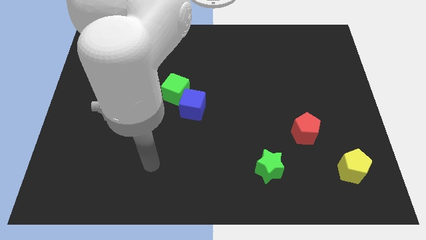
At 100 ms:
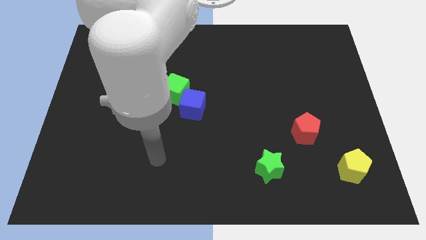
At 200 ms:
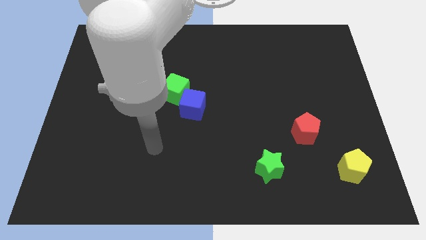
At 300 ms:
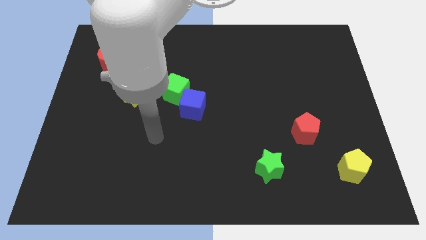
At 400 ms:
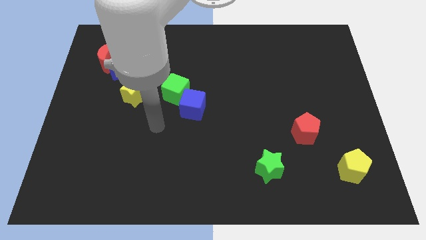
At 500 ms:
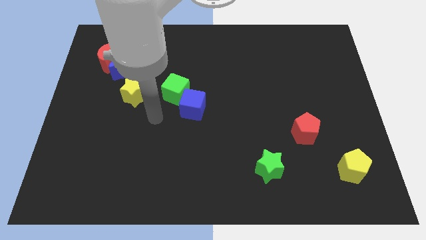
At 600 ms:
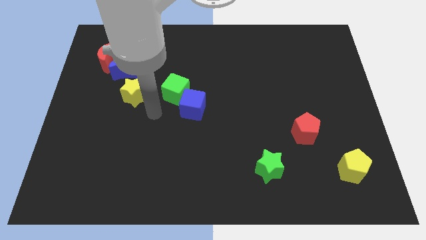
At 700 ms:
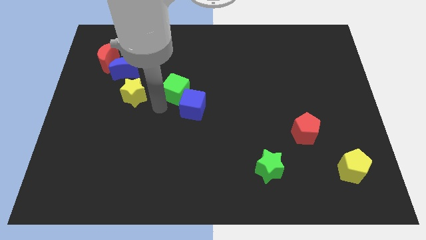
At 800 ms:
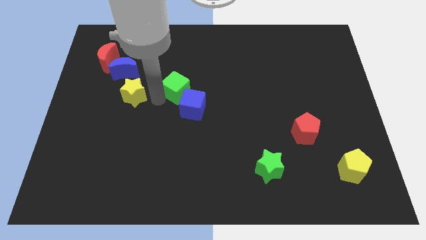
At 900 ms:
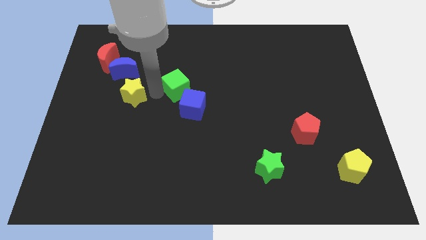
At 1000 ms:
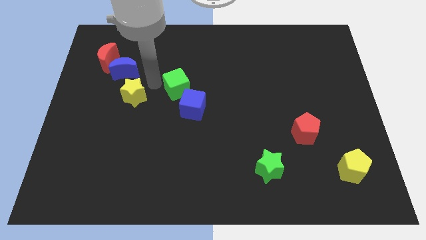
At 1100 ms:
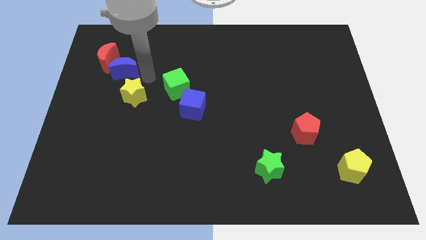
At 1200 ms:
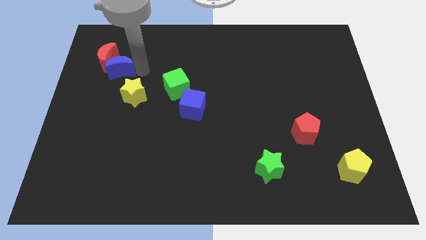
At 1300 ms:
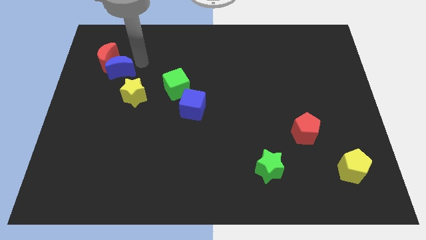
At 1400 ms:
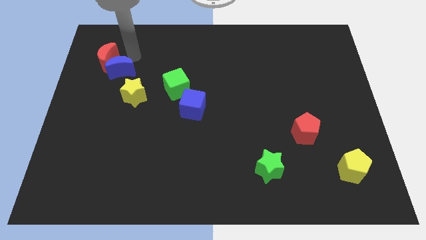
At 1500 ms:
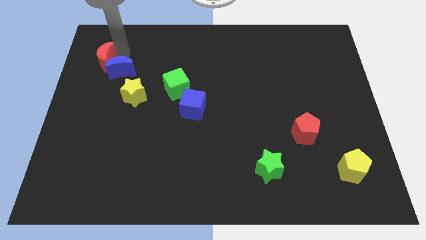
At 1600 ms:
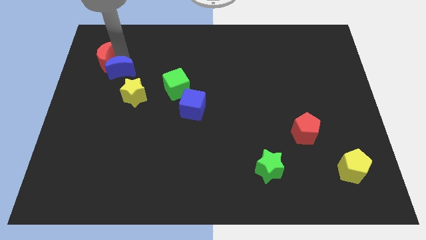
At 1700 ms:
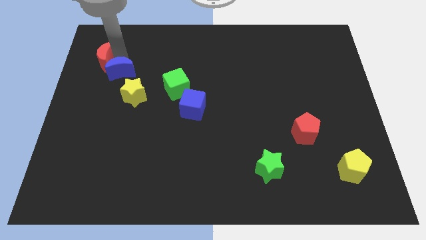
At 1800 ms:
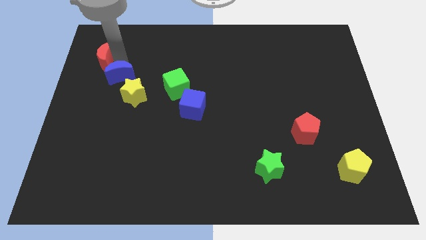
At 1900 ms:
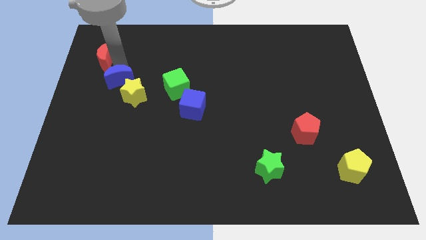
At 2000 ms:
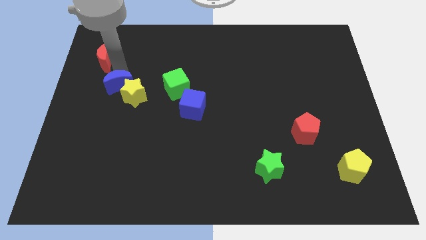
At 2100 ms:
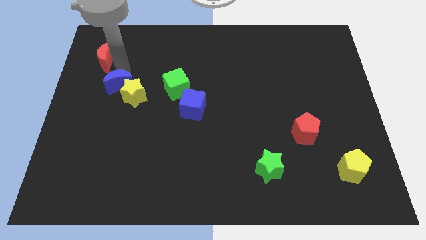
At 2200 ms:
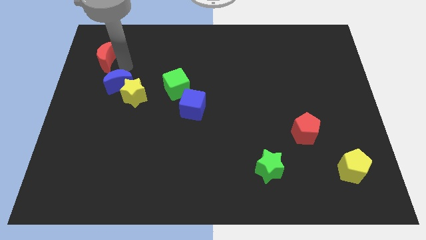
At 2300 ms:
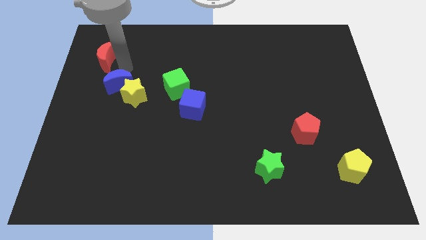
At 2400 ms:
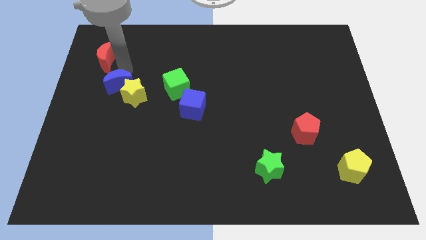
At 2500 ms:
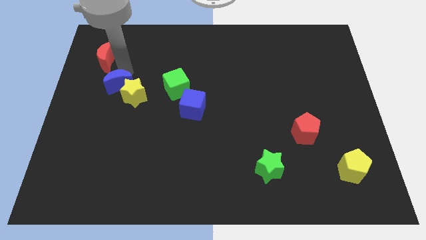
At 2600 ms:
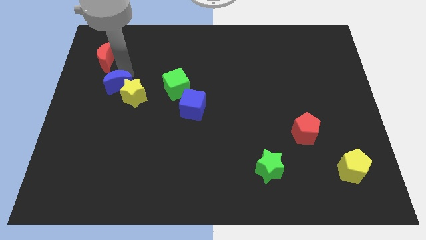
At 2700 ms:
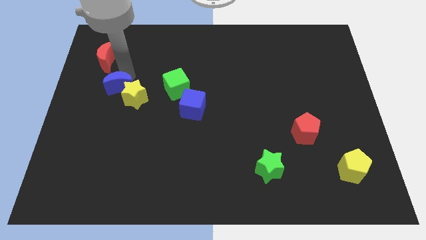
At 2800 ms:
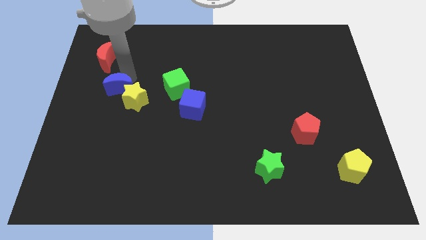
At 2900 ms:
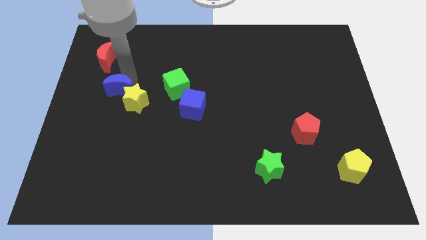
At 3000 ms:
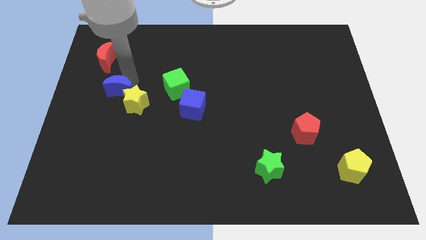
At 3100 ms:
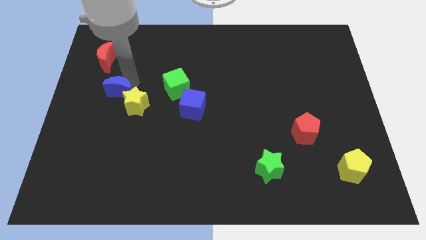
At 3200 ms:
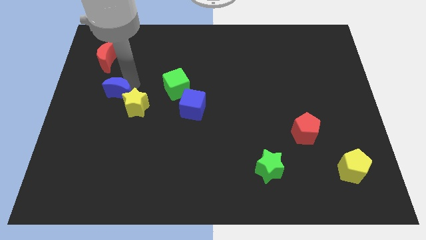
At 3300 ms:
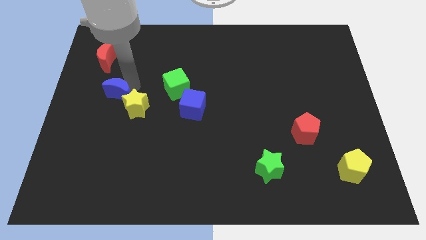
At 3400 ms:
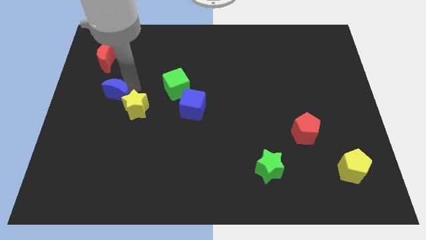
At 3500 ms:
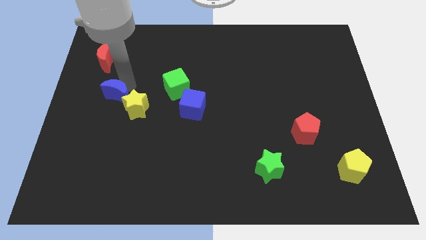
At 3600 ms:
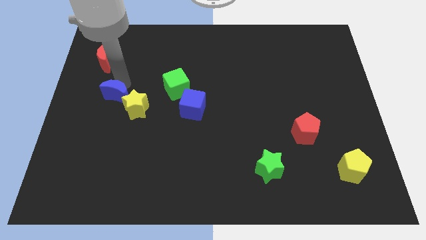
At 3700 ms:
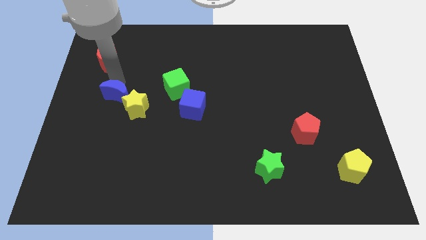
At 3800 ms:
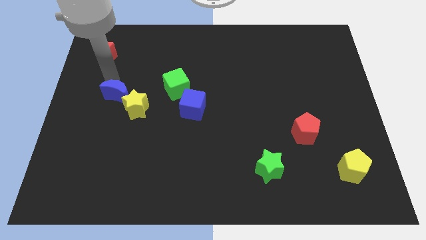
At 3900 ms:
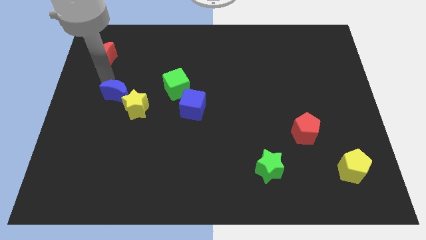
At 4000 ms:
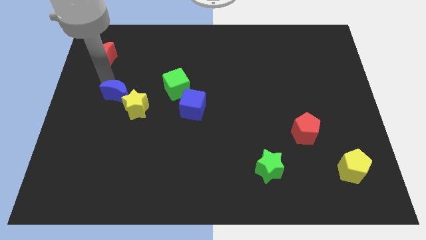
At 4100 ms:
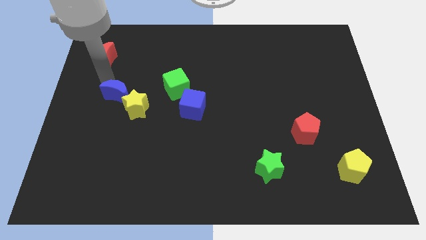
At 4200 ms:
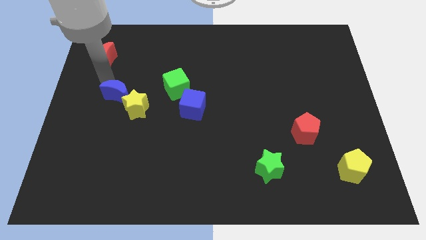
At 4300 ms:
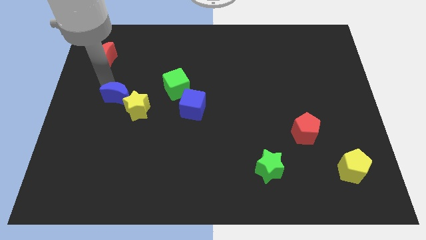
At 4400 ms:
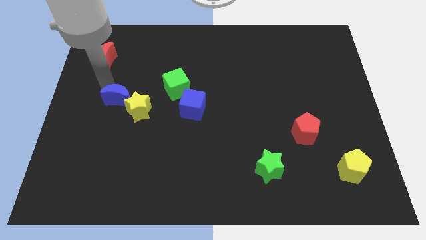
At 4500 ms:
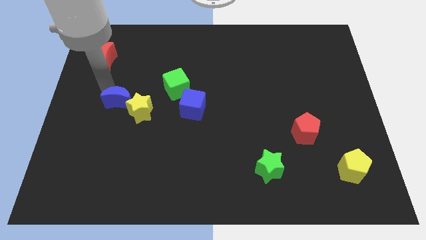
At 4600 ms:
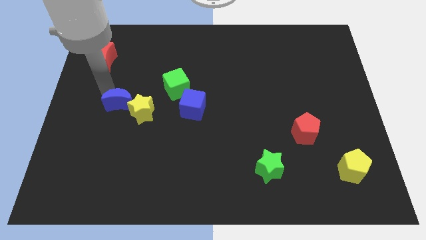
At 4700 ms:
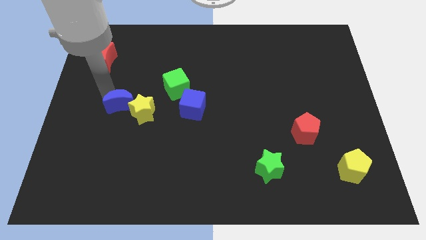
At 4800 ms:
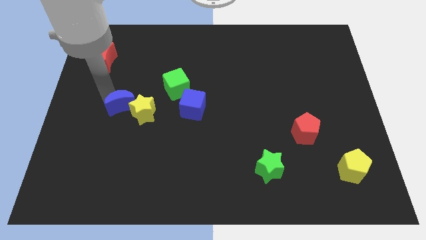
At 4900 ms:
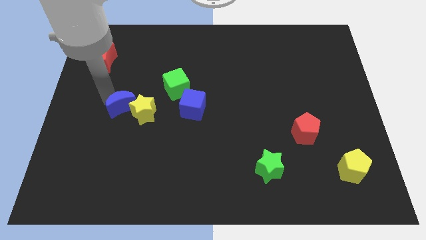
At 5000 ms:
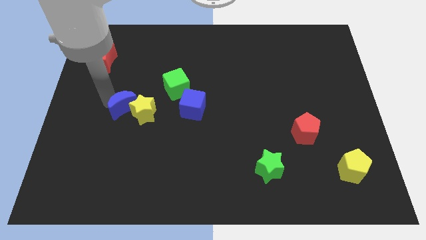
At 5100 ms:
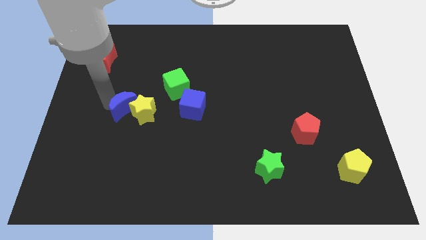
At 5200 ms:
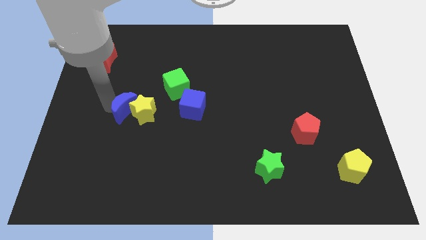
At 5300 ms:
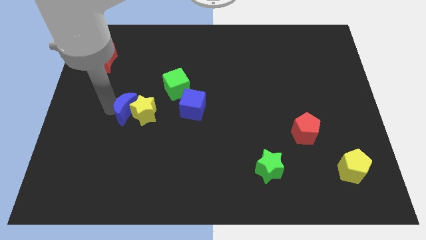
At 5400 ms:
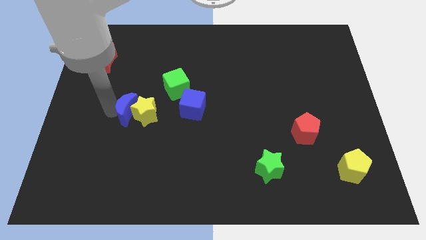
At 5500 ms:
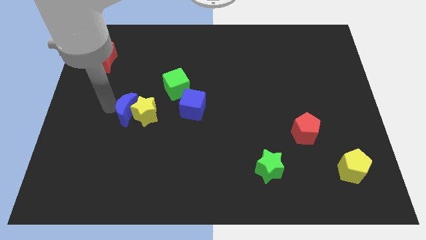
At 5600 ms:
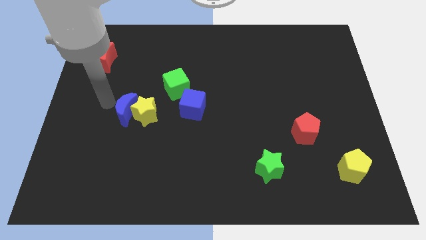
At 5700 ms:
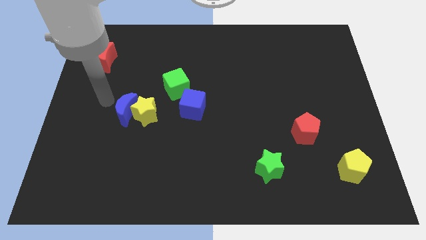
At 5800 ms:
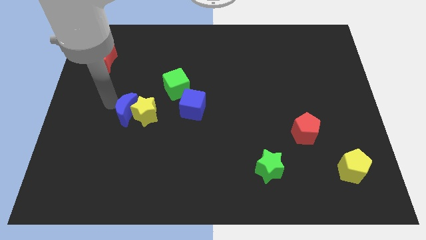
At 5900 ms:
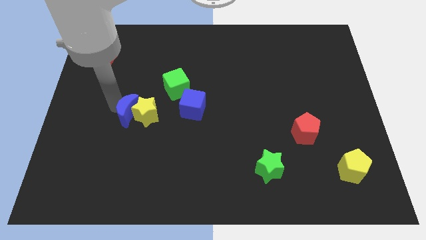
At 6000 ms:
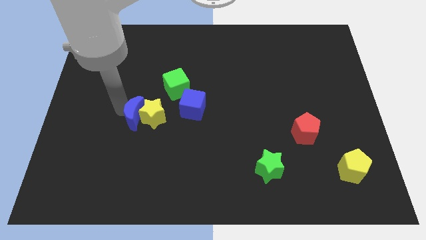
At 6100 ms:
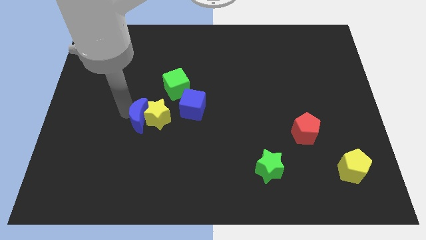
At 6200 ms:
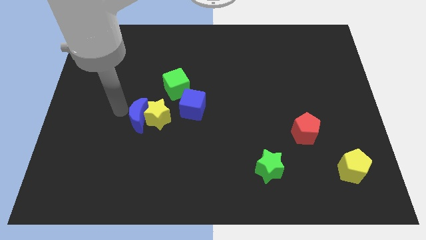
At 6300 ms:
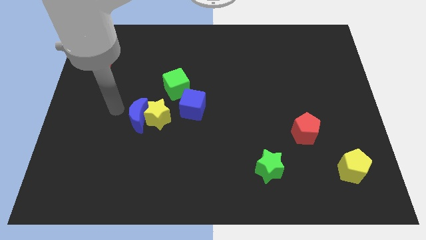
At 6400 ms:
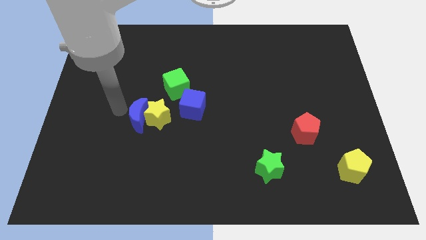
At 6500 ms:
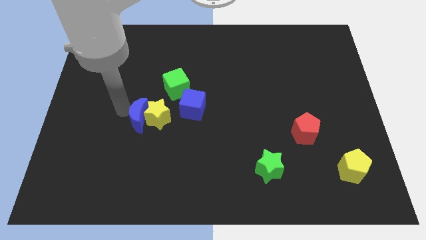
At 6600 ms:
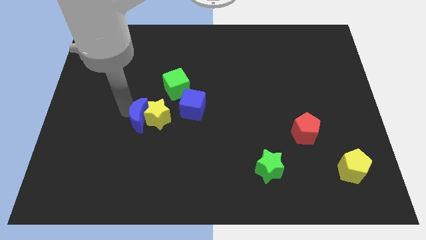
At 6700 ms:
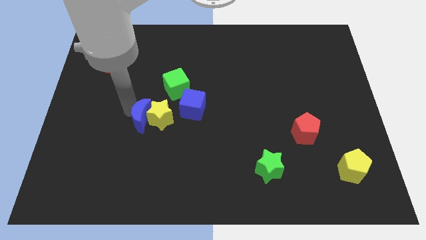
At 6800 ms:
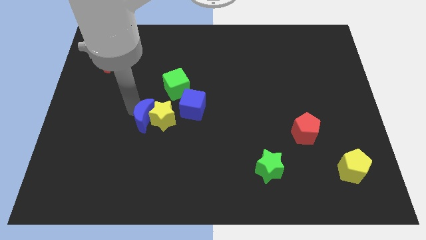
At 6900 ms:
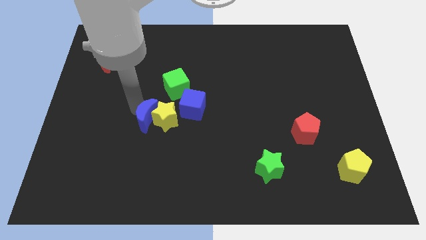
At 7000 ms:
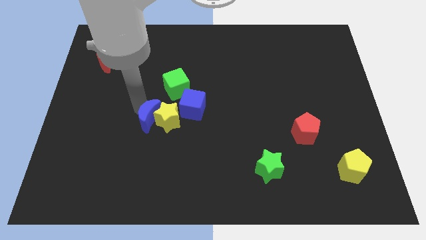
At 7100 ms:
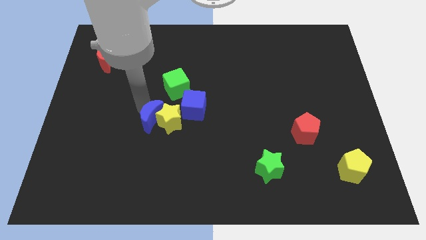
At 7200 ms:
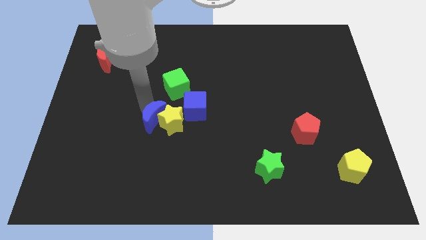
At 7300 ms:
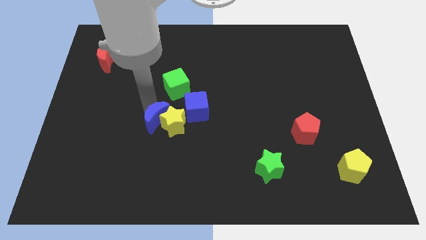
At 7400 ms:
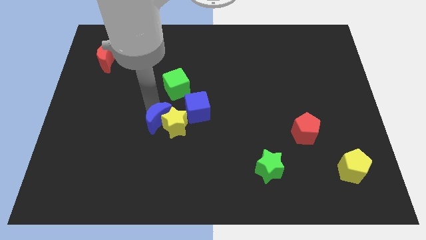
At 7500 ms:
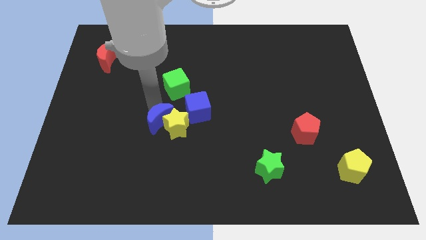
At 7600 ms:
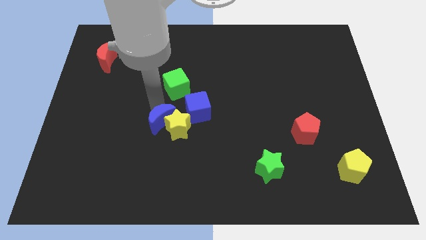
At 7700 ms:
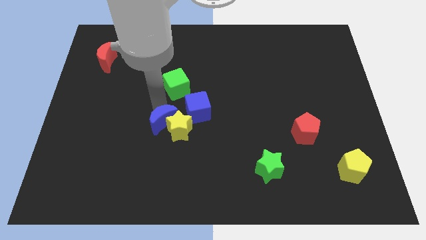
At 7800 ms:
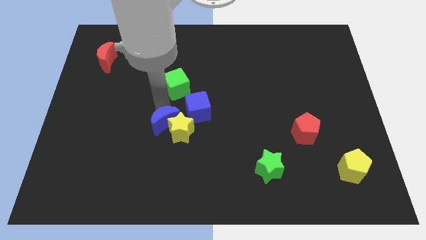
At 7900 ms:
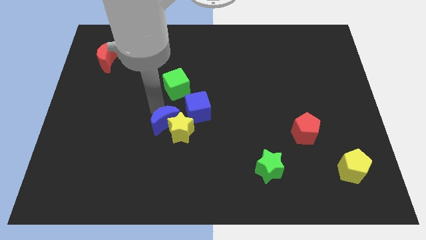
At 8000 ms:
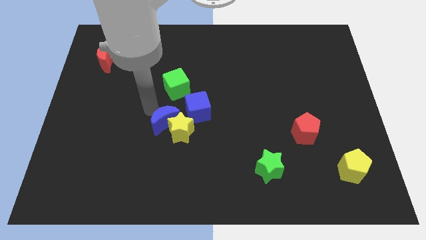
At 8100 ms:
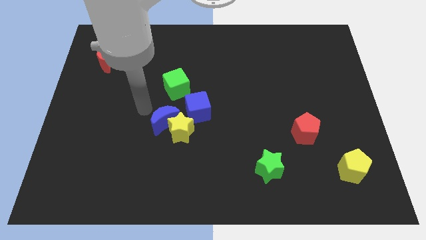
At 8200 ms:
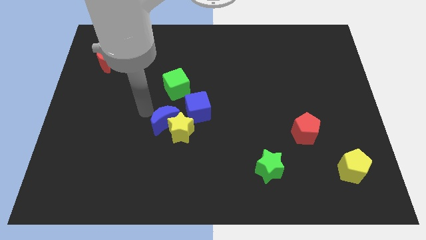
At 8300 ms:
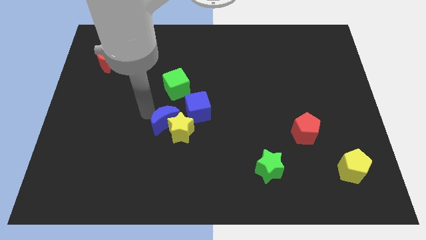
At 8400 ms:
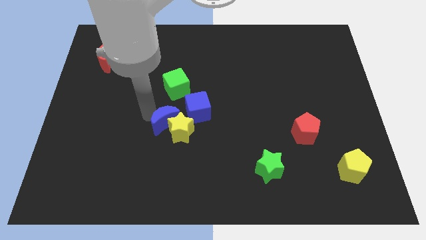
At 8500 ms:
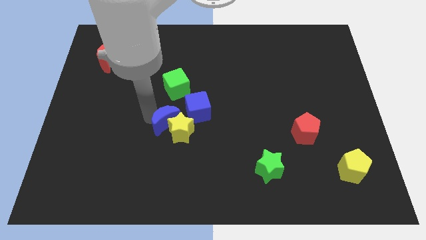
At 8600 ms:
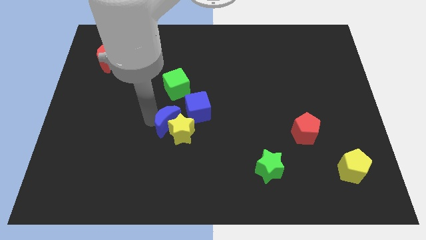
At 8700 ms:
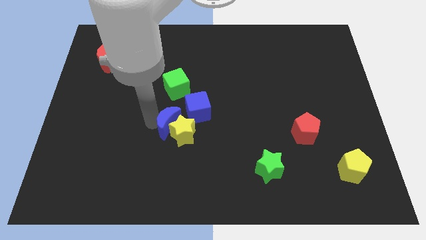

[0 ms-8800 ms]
push the blue moon down and then to the right
